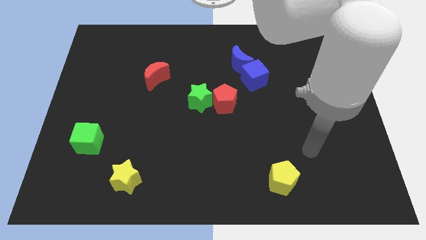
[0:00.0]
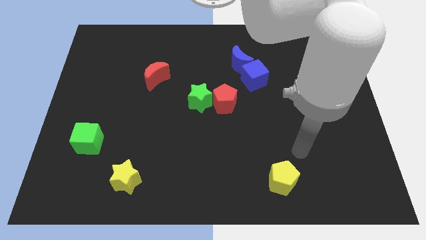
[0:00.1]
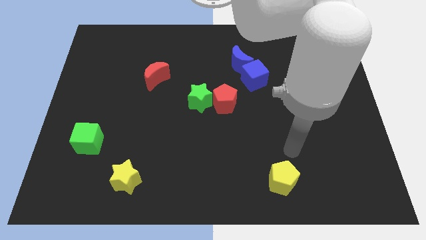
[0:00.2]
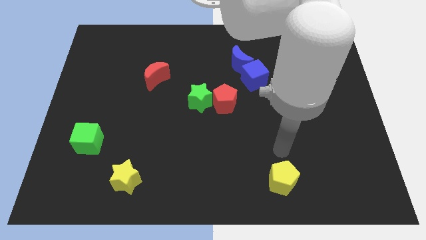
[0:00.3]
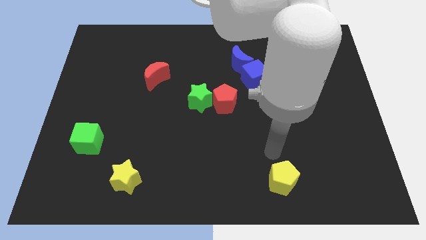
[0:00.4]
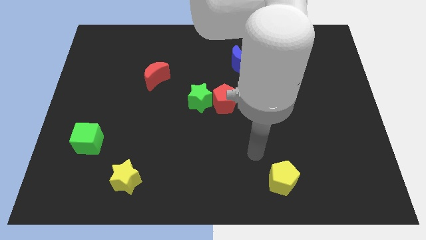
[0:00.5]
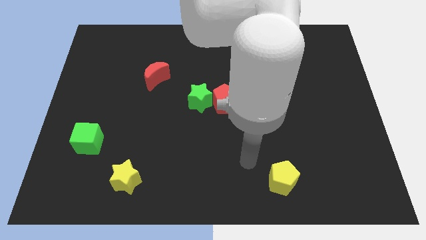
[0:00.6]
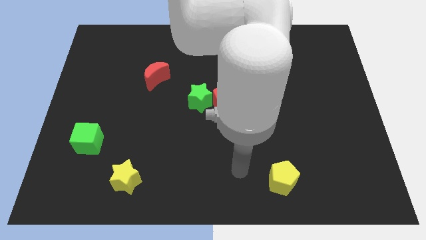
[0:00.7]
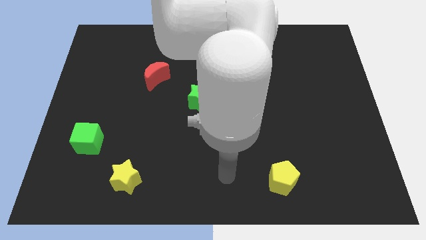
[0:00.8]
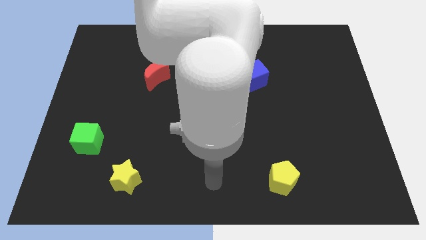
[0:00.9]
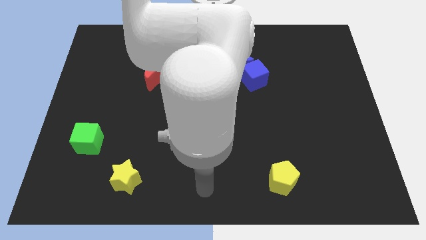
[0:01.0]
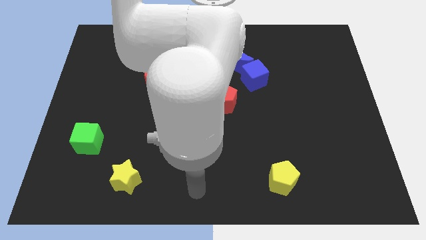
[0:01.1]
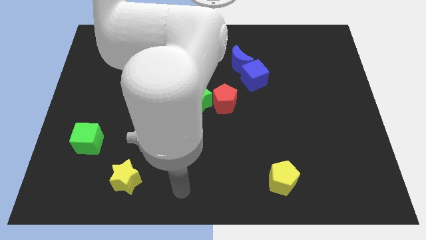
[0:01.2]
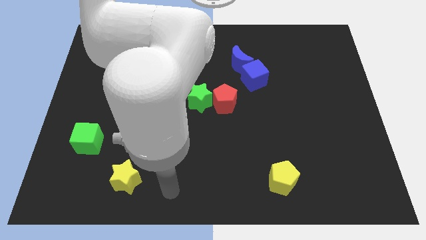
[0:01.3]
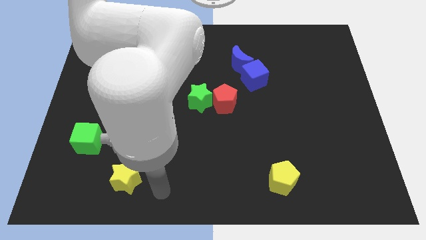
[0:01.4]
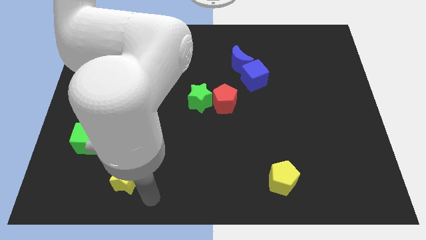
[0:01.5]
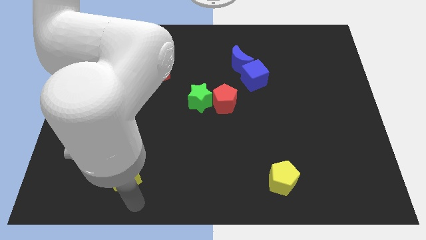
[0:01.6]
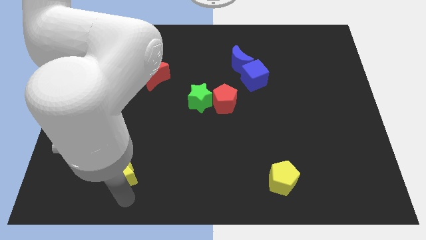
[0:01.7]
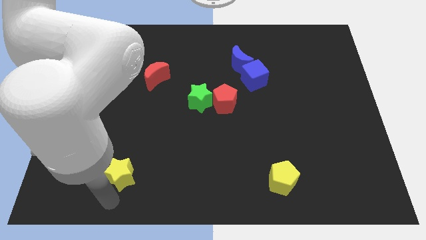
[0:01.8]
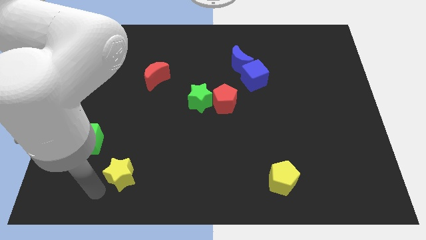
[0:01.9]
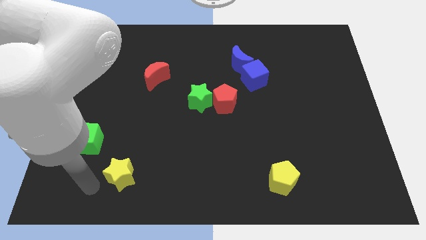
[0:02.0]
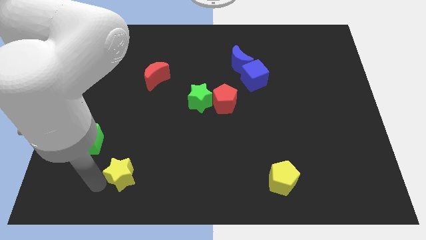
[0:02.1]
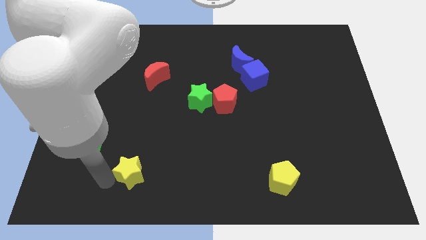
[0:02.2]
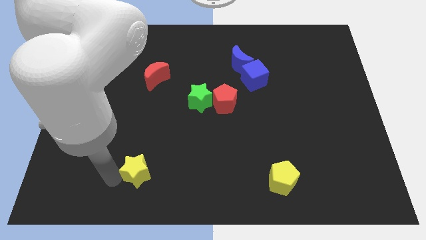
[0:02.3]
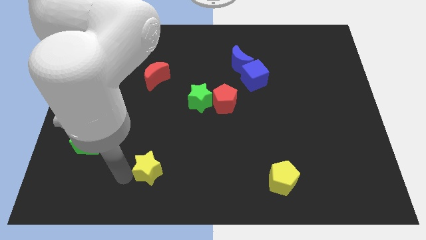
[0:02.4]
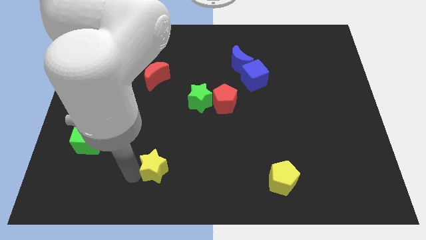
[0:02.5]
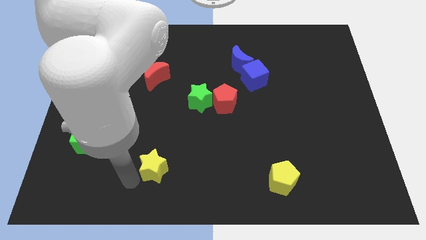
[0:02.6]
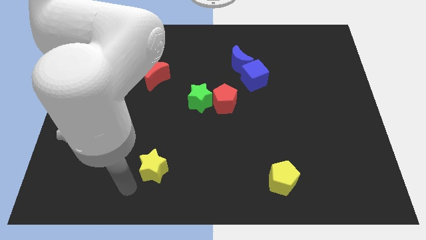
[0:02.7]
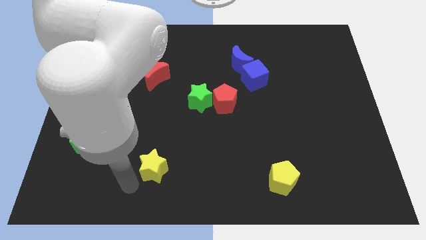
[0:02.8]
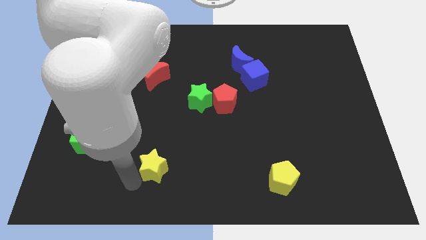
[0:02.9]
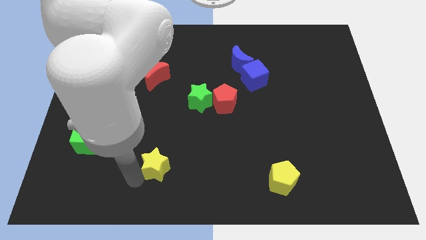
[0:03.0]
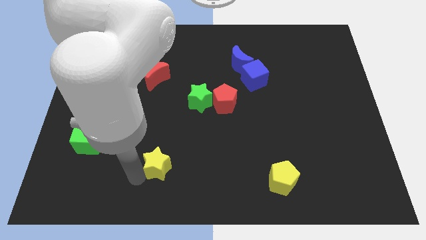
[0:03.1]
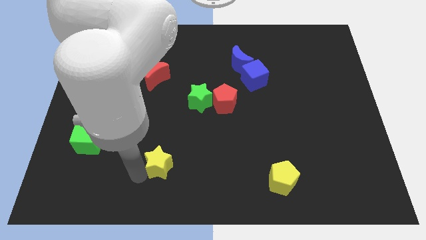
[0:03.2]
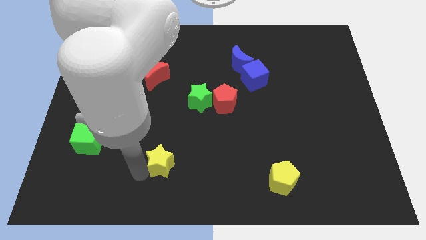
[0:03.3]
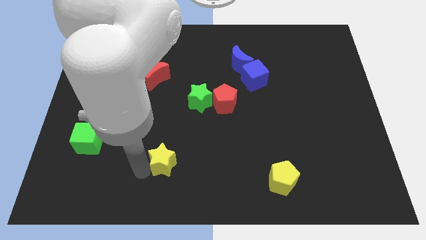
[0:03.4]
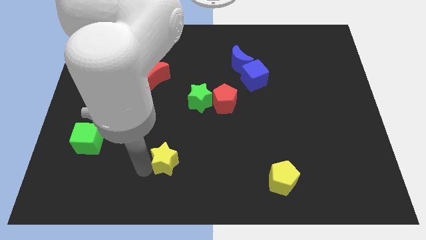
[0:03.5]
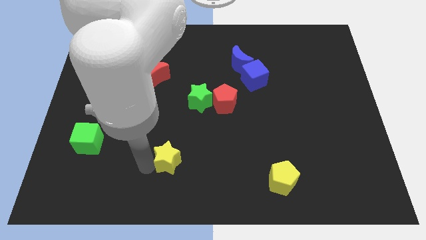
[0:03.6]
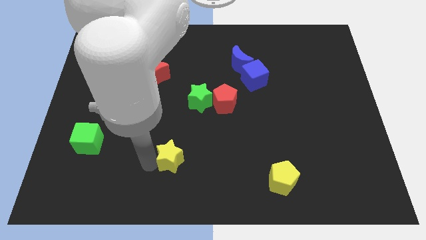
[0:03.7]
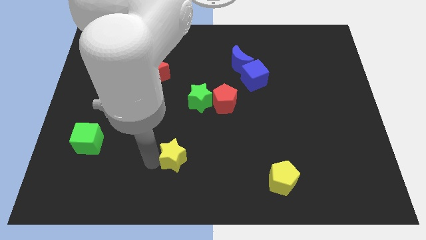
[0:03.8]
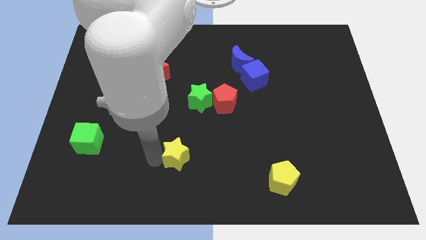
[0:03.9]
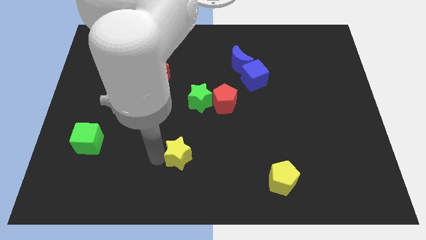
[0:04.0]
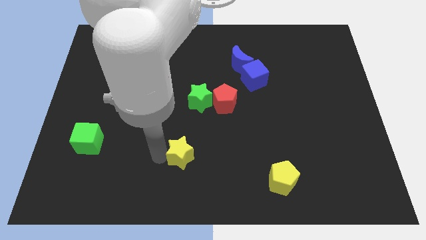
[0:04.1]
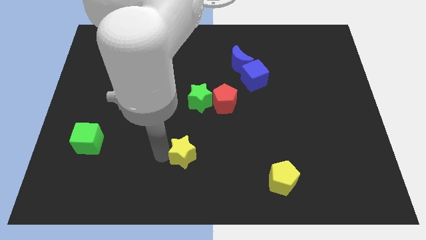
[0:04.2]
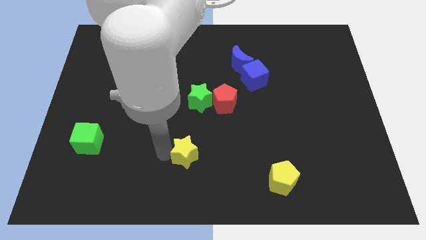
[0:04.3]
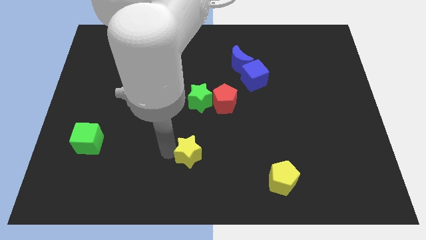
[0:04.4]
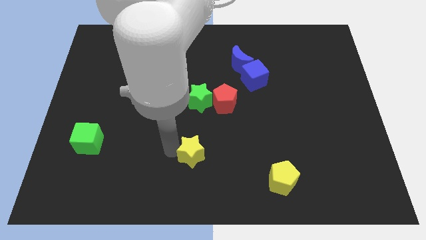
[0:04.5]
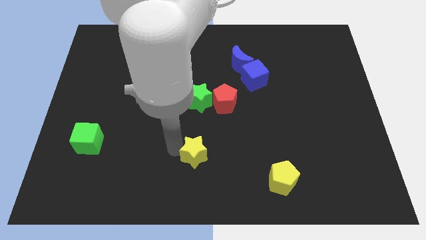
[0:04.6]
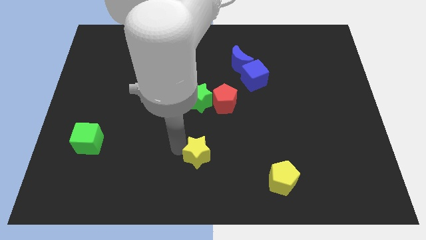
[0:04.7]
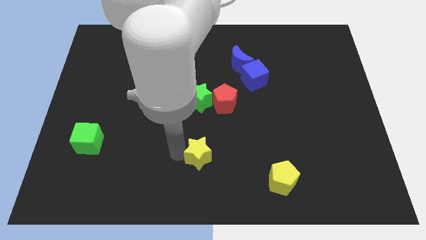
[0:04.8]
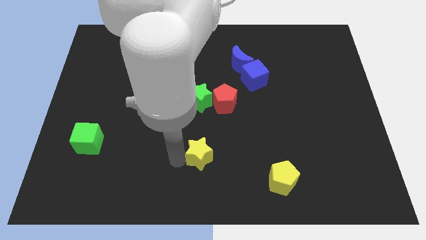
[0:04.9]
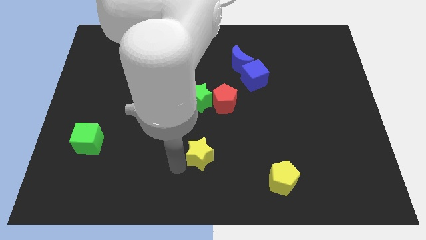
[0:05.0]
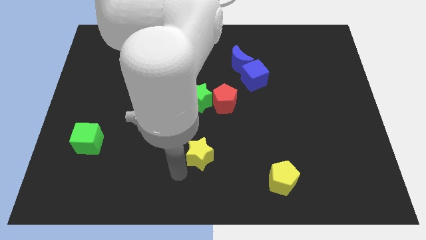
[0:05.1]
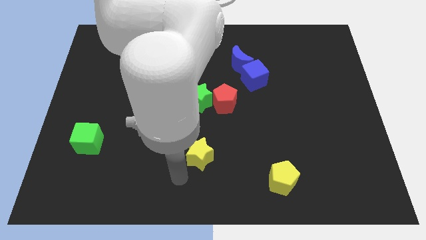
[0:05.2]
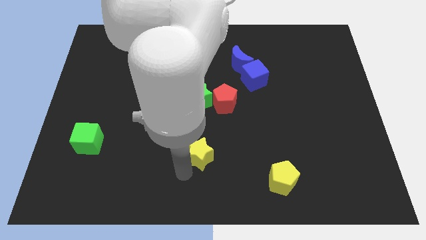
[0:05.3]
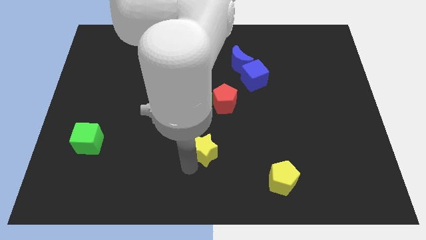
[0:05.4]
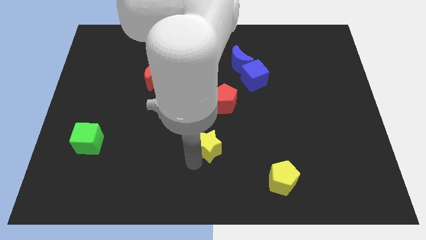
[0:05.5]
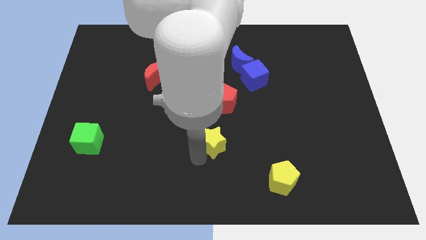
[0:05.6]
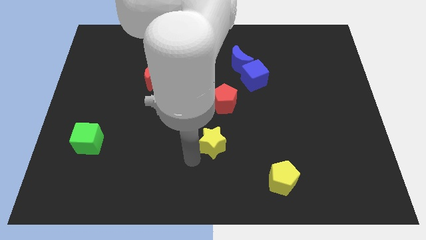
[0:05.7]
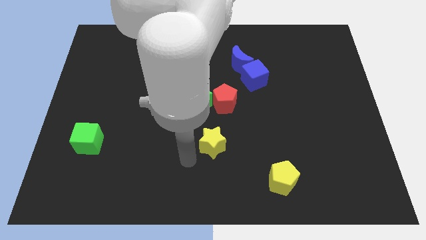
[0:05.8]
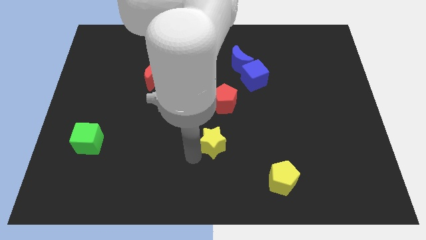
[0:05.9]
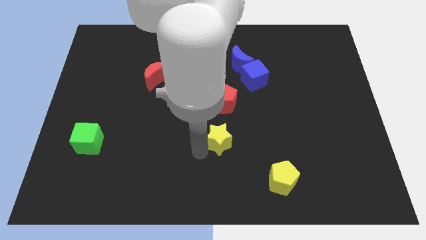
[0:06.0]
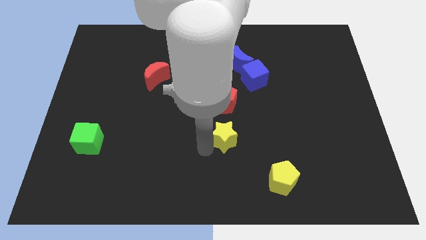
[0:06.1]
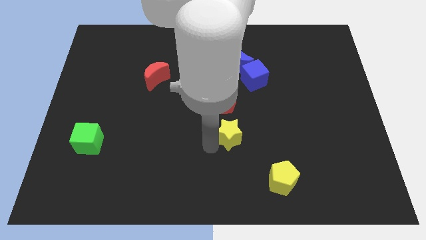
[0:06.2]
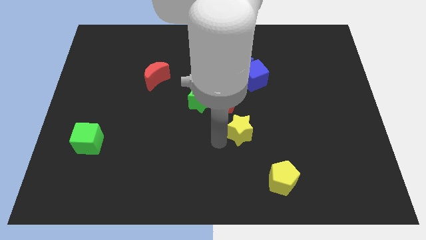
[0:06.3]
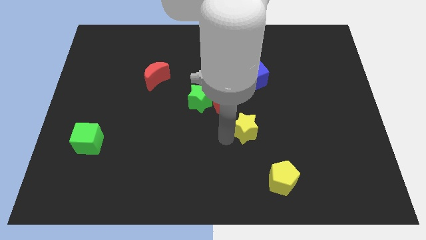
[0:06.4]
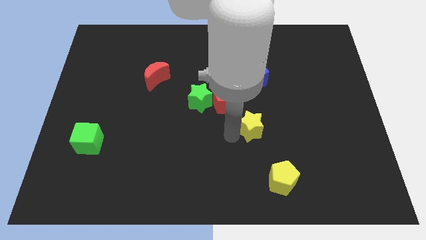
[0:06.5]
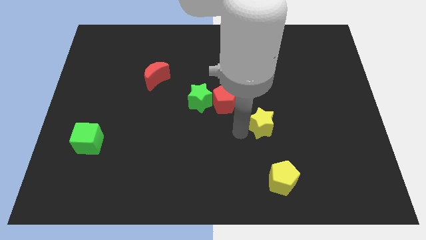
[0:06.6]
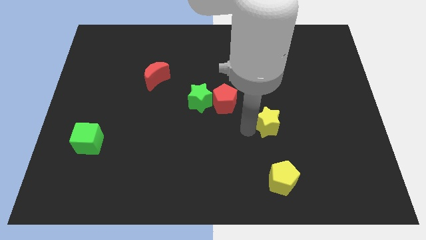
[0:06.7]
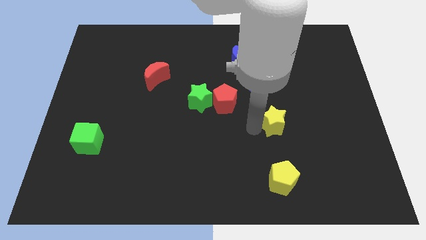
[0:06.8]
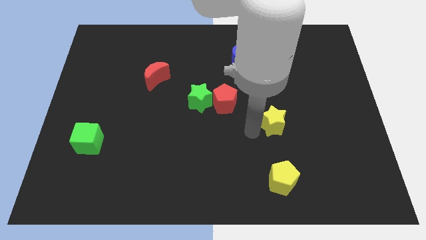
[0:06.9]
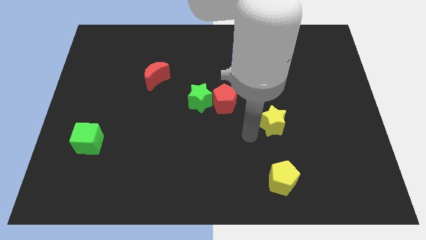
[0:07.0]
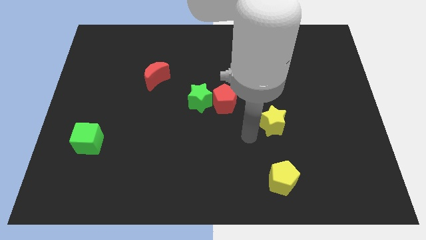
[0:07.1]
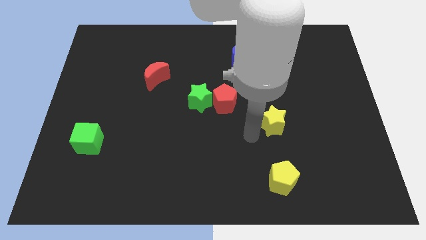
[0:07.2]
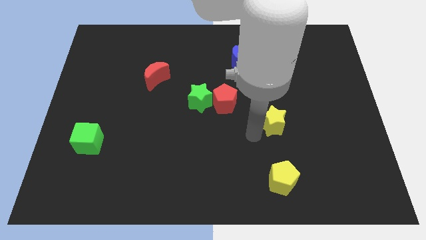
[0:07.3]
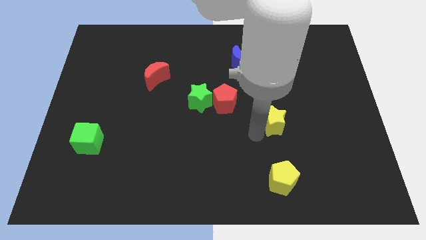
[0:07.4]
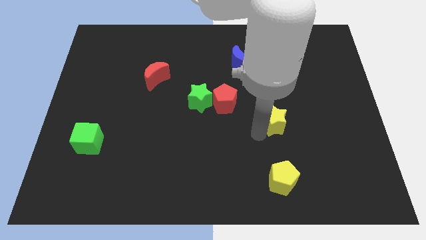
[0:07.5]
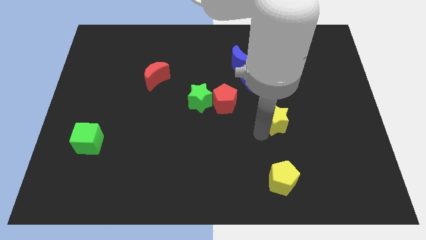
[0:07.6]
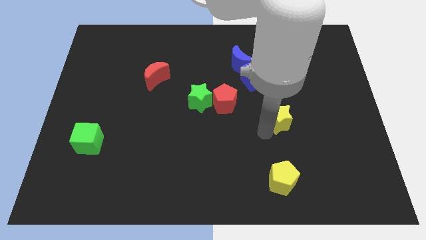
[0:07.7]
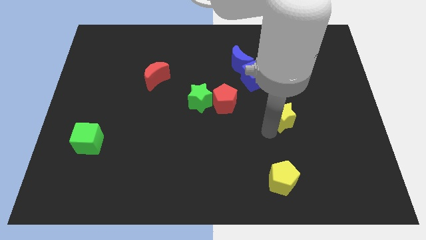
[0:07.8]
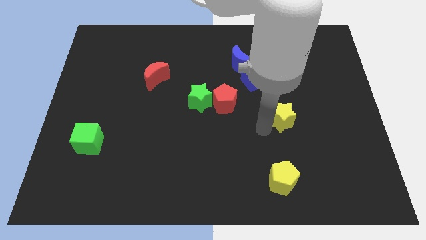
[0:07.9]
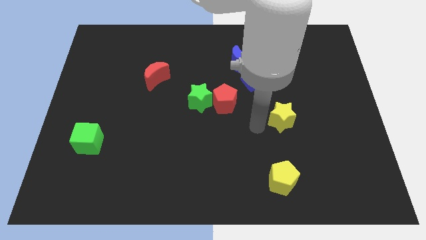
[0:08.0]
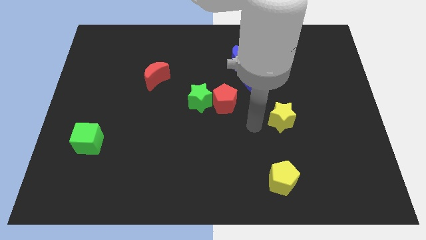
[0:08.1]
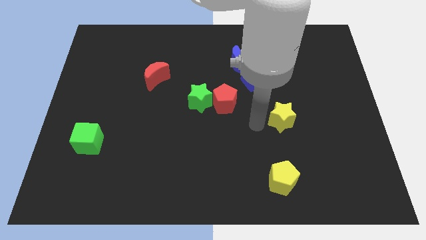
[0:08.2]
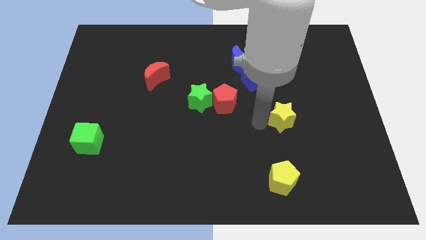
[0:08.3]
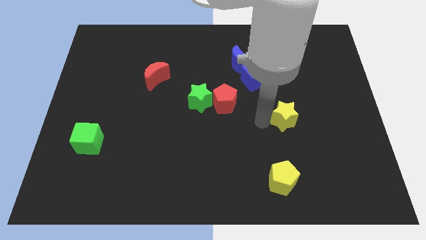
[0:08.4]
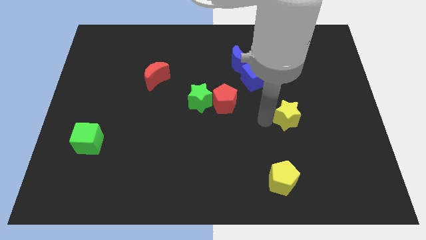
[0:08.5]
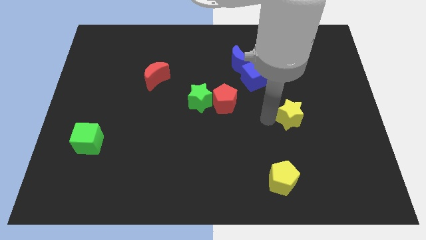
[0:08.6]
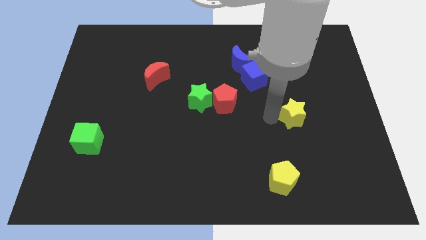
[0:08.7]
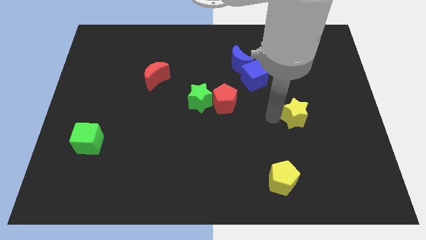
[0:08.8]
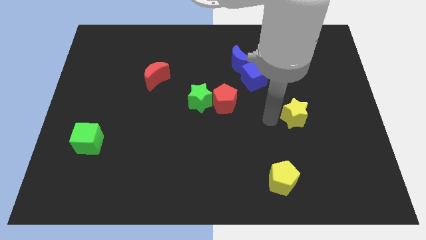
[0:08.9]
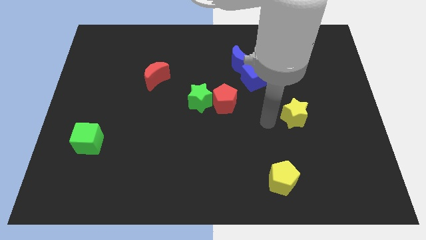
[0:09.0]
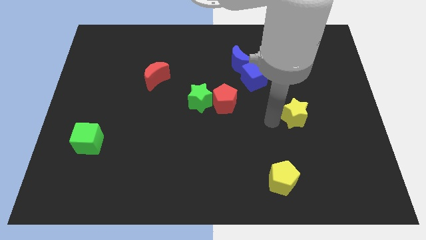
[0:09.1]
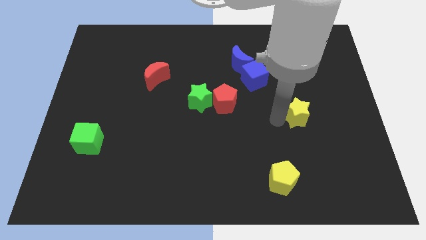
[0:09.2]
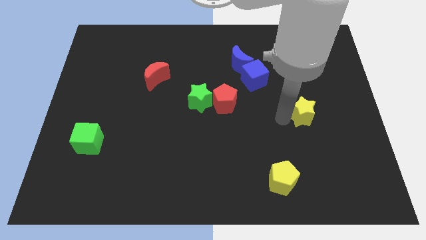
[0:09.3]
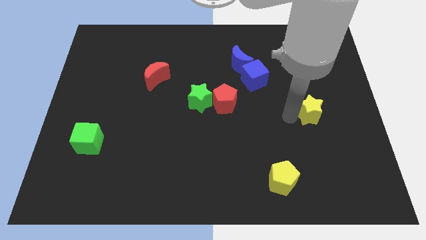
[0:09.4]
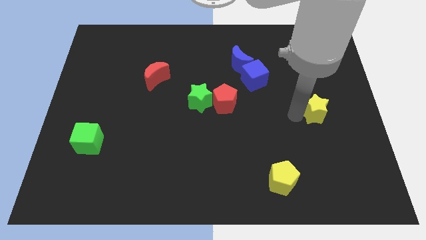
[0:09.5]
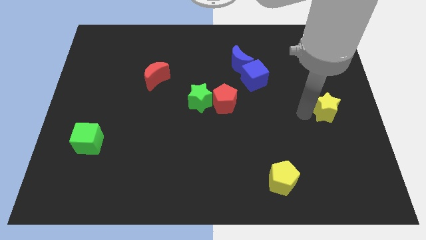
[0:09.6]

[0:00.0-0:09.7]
move the yellow star to the right side of the board
